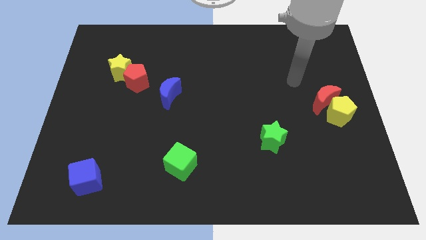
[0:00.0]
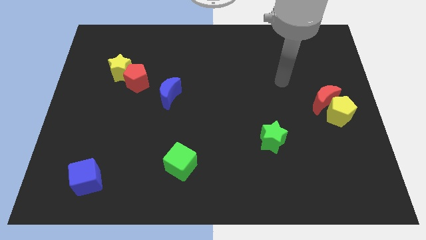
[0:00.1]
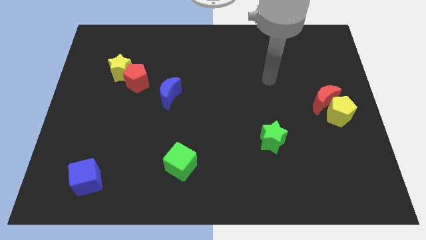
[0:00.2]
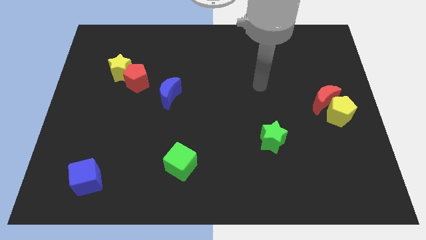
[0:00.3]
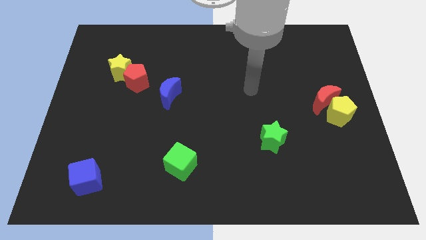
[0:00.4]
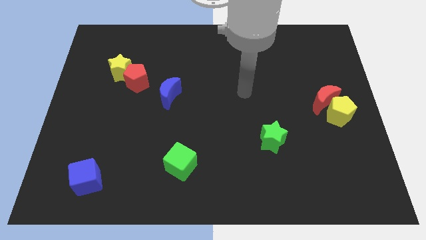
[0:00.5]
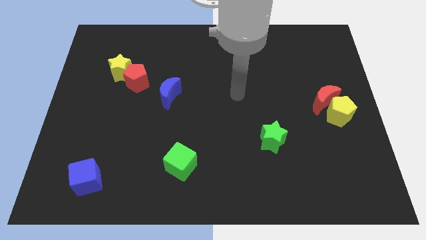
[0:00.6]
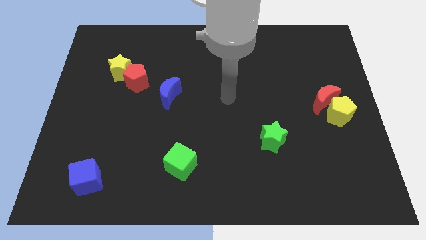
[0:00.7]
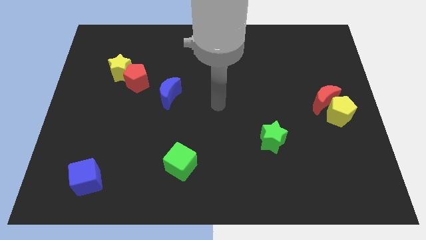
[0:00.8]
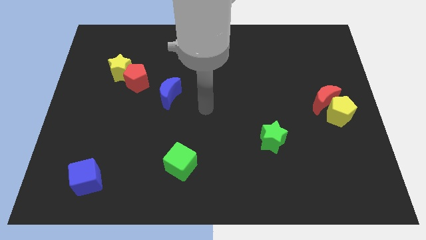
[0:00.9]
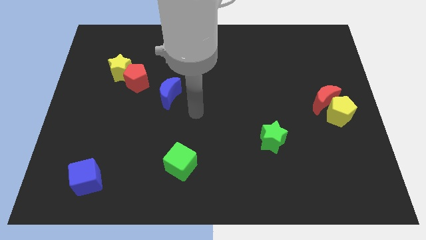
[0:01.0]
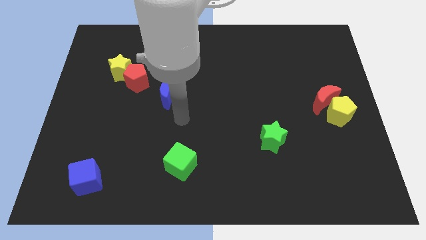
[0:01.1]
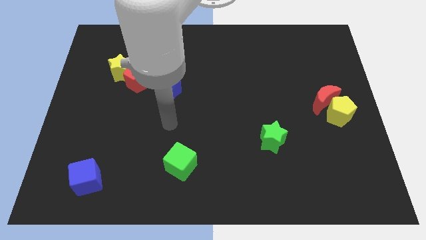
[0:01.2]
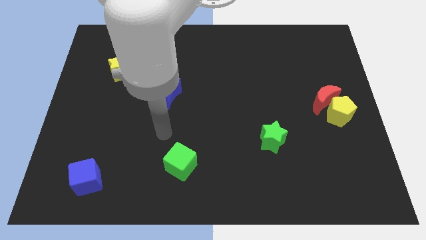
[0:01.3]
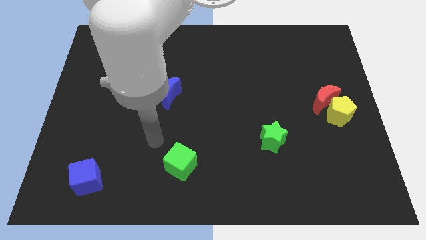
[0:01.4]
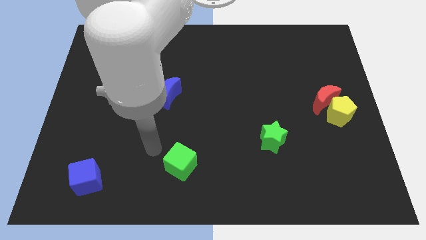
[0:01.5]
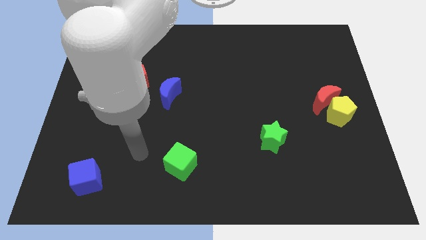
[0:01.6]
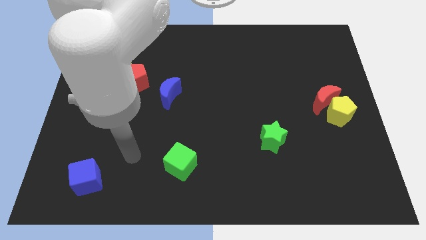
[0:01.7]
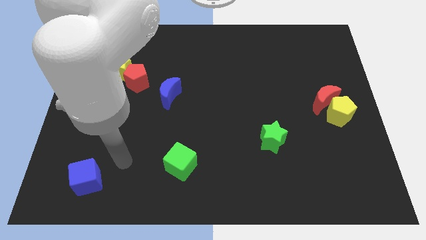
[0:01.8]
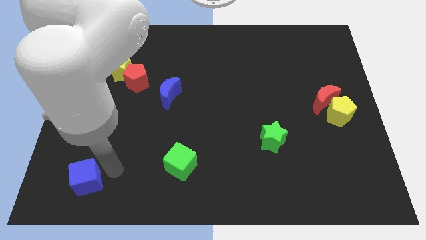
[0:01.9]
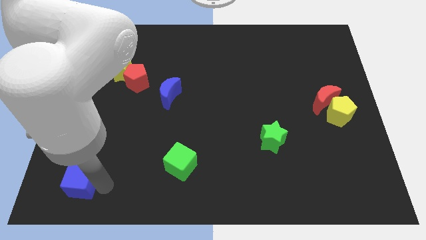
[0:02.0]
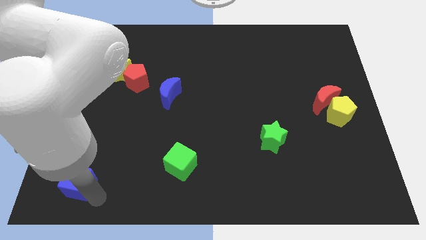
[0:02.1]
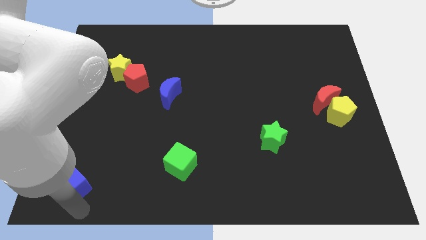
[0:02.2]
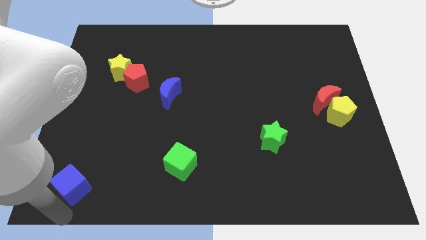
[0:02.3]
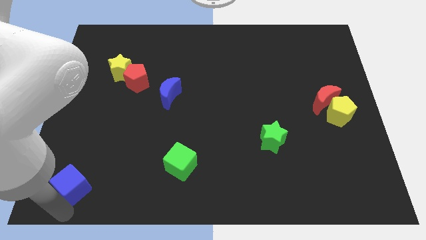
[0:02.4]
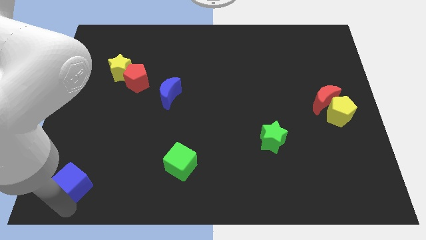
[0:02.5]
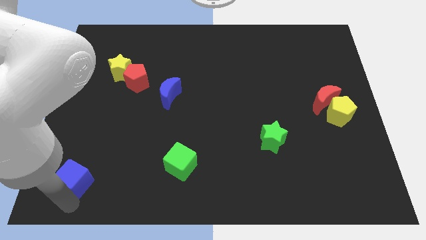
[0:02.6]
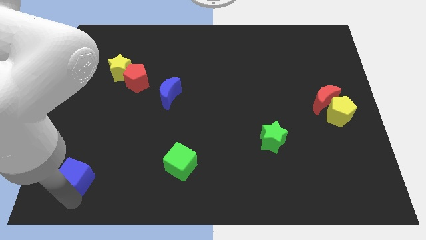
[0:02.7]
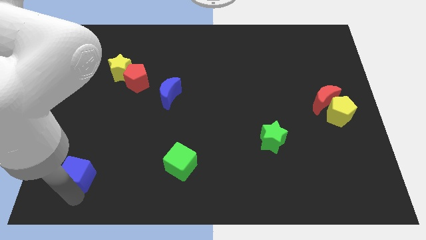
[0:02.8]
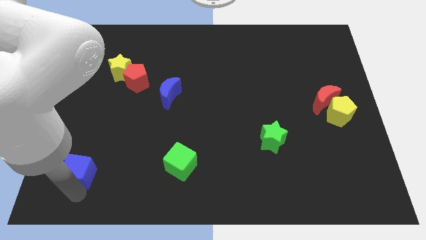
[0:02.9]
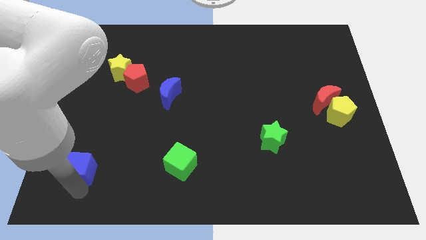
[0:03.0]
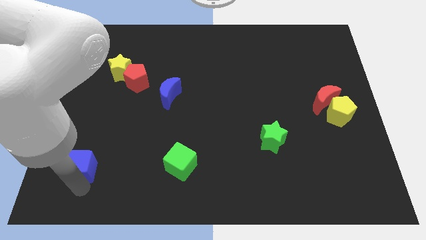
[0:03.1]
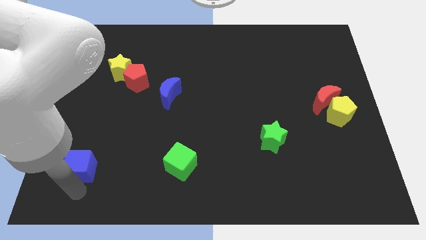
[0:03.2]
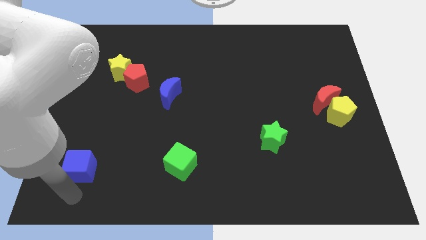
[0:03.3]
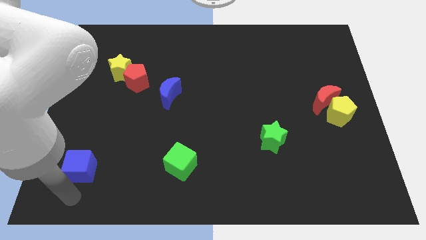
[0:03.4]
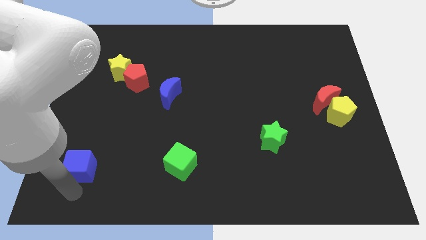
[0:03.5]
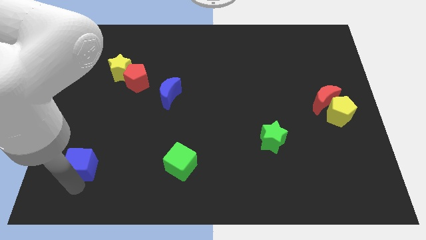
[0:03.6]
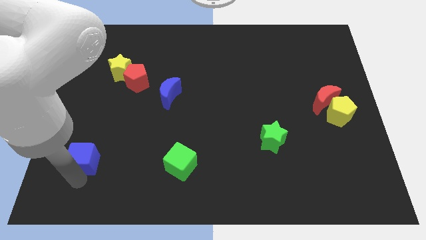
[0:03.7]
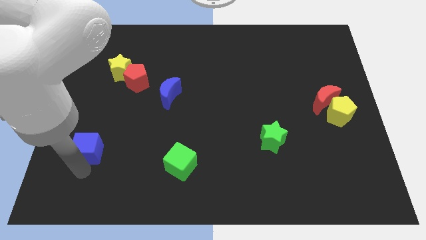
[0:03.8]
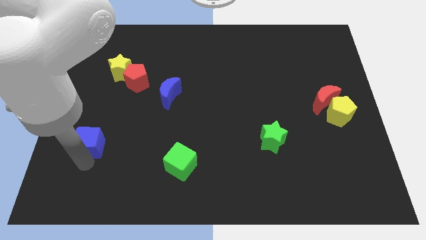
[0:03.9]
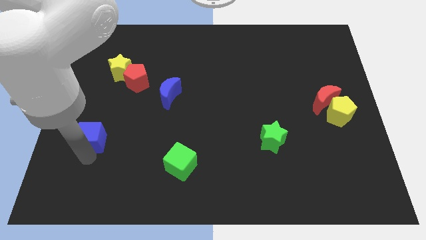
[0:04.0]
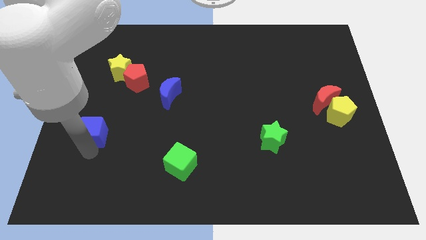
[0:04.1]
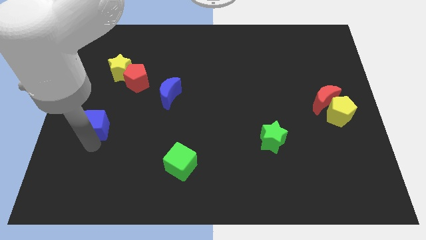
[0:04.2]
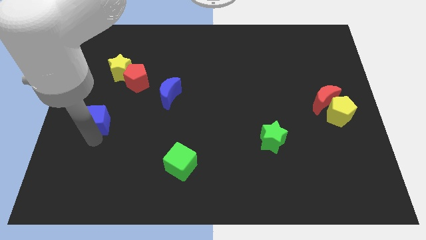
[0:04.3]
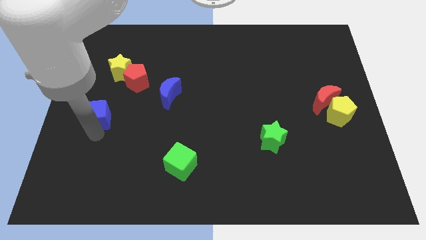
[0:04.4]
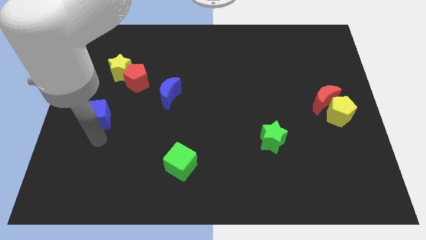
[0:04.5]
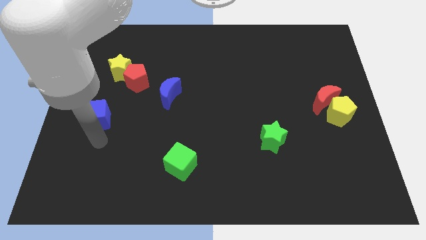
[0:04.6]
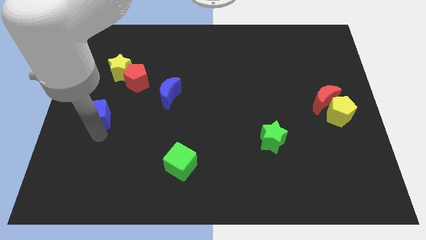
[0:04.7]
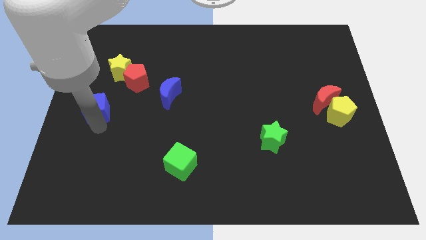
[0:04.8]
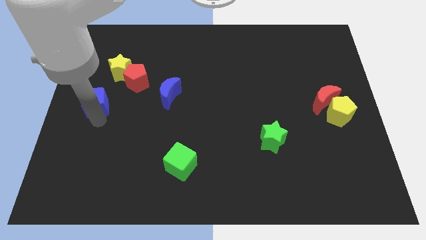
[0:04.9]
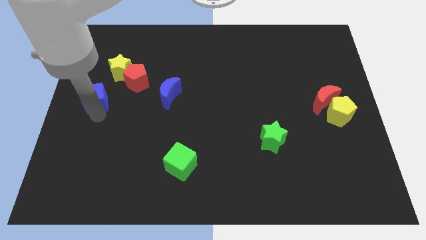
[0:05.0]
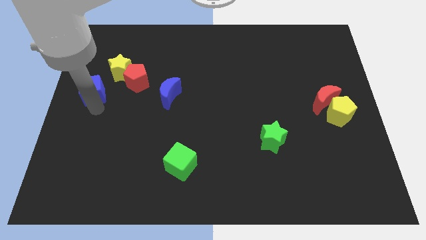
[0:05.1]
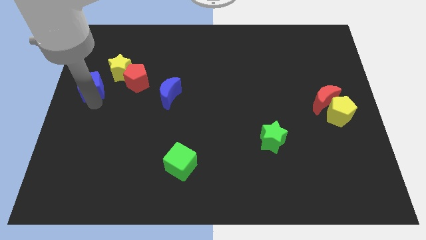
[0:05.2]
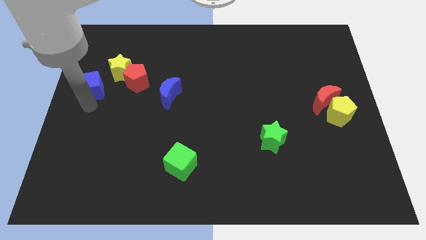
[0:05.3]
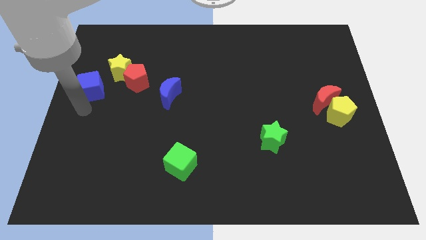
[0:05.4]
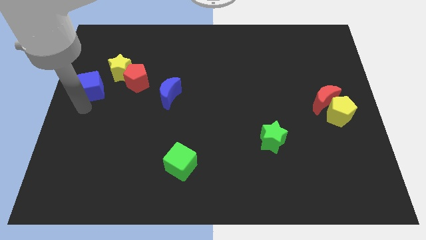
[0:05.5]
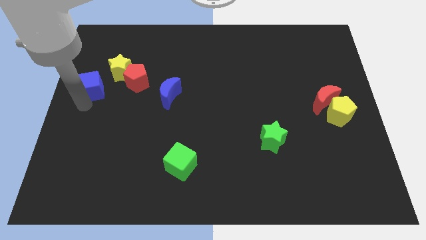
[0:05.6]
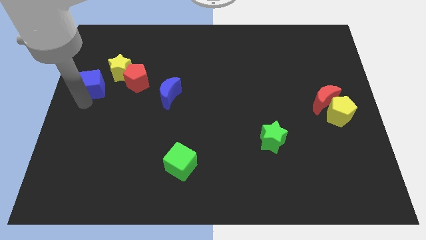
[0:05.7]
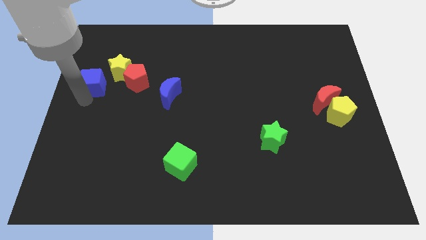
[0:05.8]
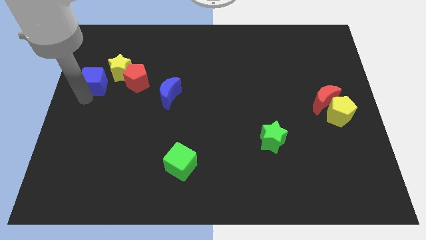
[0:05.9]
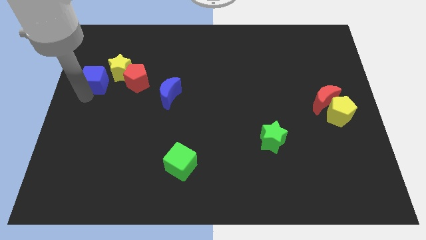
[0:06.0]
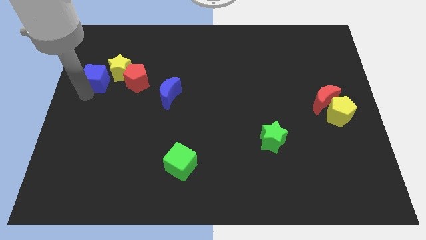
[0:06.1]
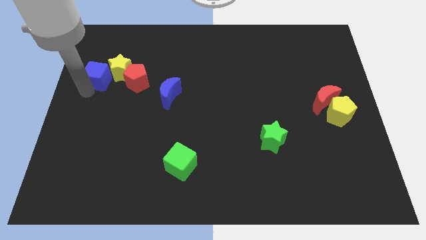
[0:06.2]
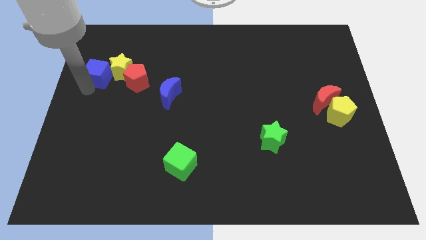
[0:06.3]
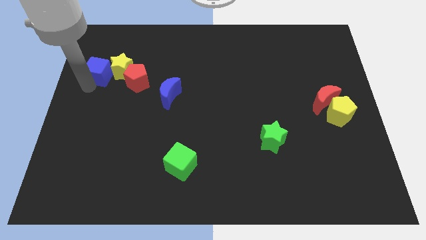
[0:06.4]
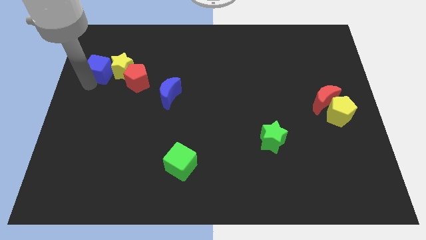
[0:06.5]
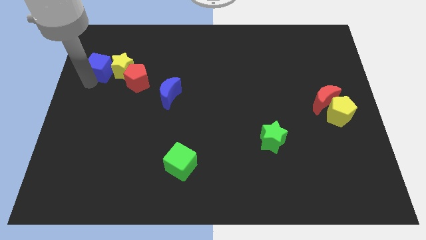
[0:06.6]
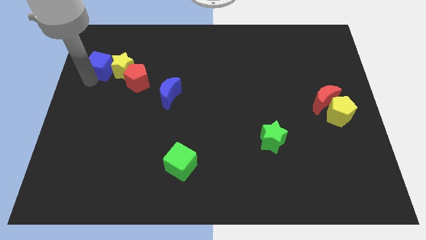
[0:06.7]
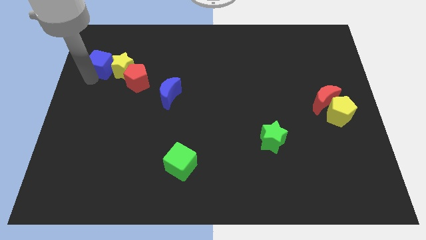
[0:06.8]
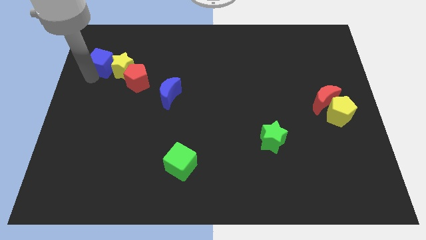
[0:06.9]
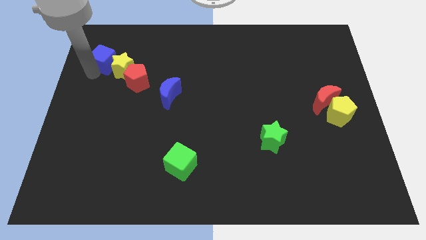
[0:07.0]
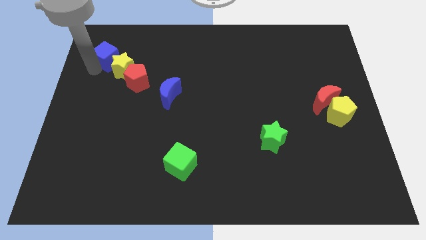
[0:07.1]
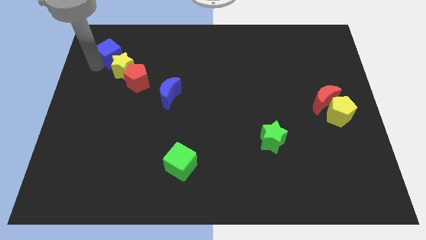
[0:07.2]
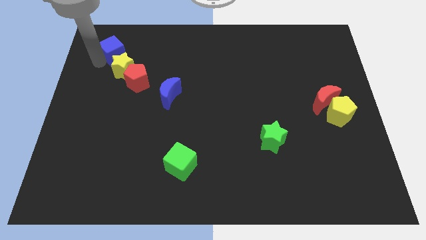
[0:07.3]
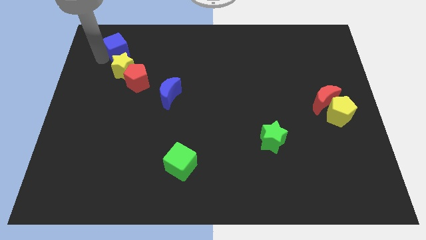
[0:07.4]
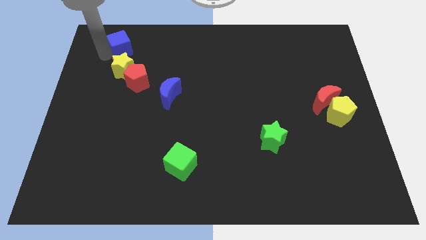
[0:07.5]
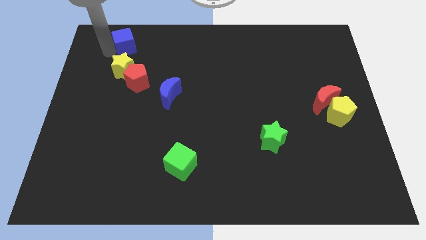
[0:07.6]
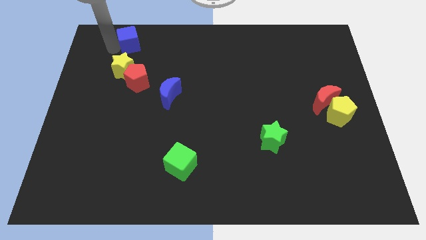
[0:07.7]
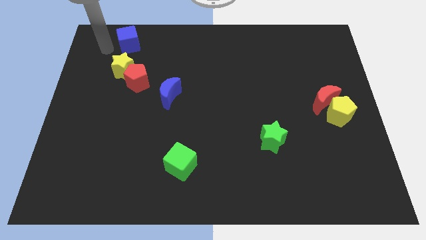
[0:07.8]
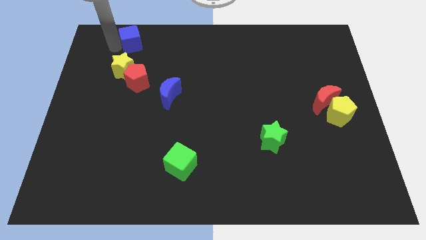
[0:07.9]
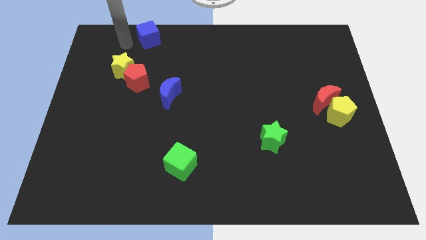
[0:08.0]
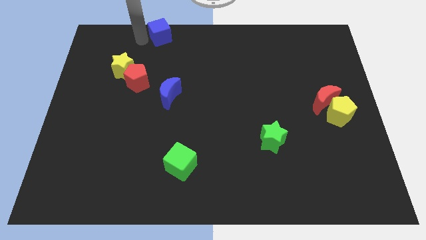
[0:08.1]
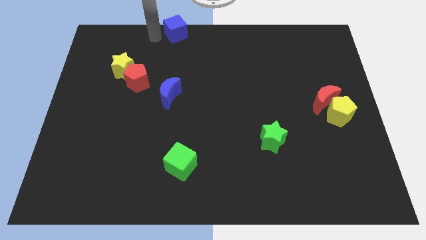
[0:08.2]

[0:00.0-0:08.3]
slide the blue cube to the towards your base
